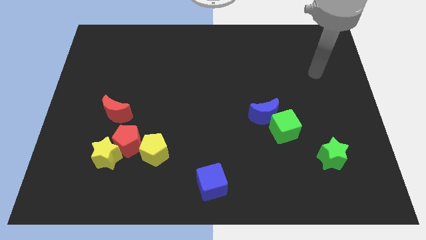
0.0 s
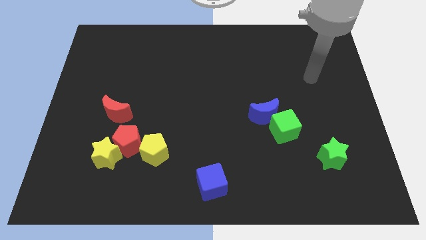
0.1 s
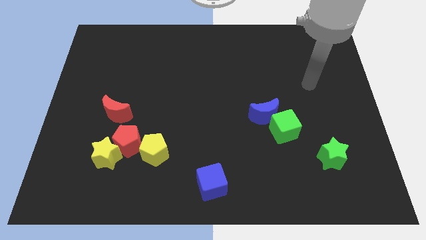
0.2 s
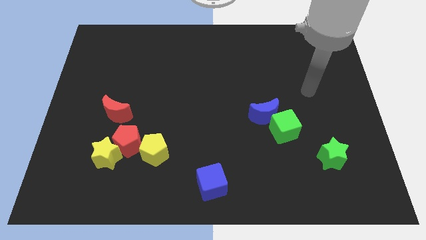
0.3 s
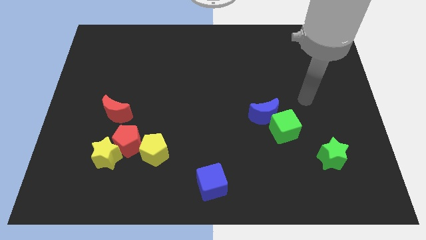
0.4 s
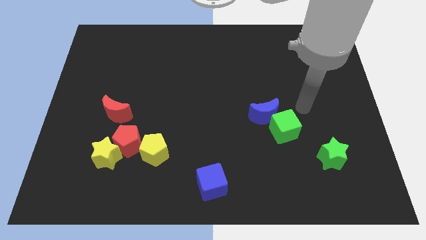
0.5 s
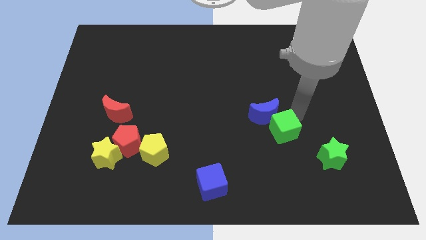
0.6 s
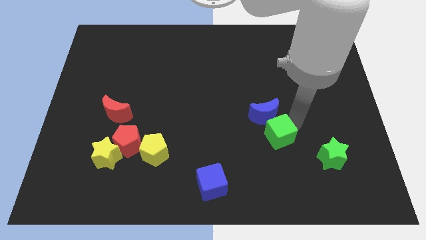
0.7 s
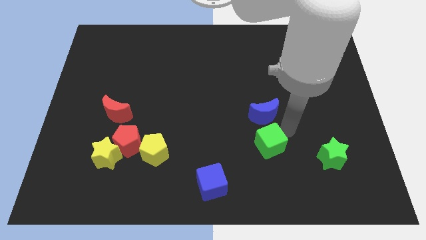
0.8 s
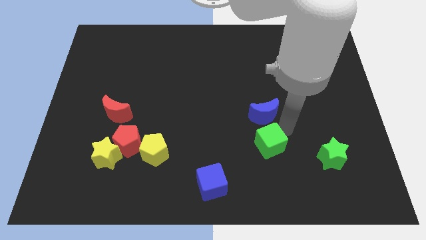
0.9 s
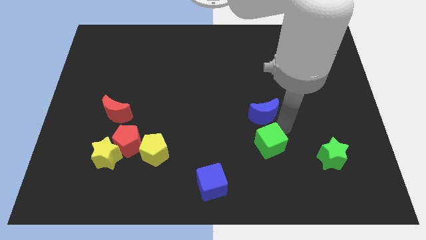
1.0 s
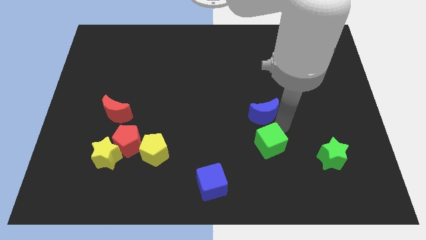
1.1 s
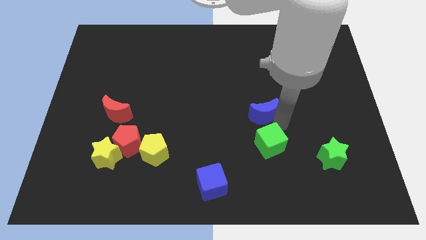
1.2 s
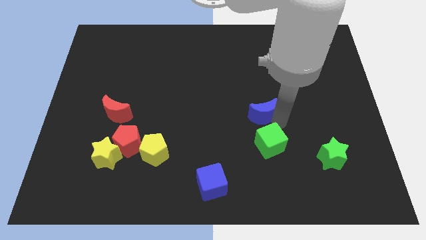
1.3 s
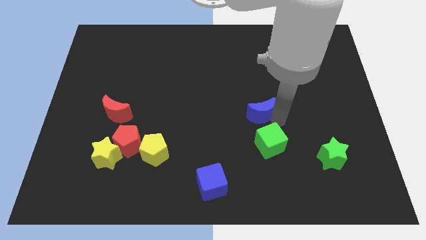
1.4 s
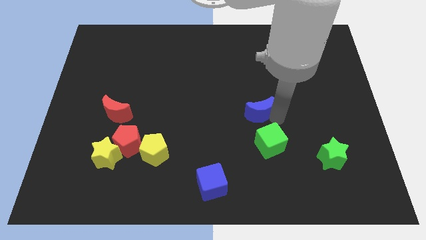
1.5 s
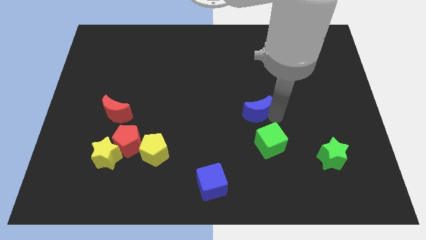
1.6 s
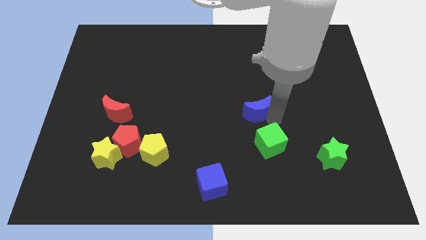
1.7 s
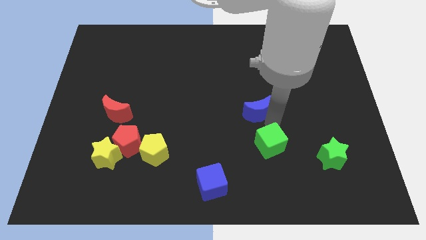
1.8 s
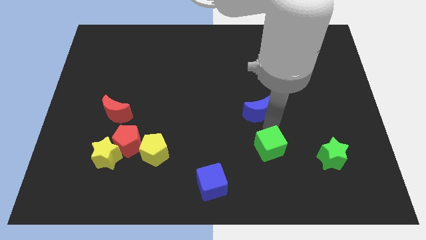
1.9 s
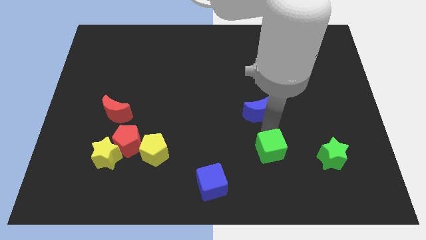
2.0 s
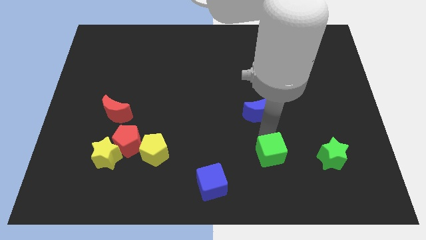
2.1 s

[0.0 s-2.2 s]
move the blue moon away from the green cube

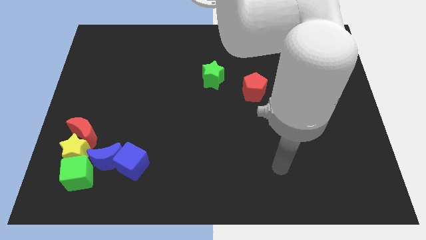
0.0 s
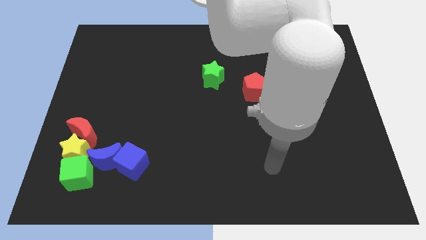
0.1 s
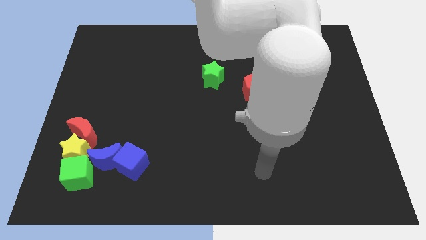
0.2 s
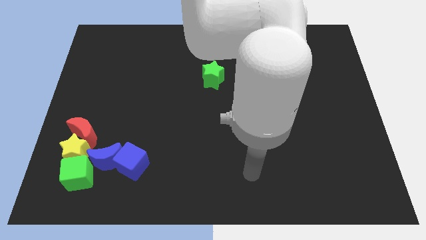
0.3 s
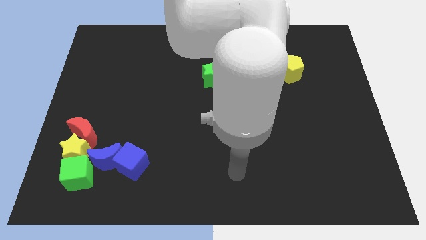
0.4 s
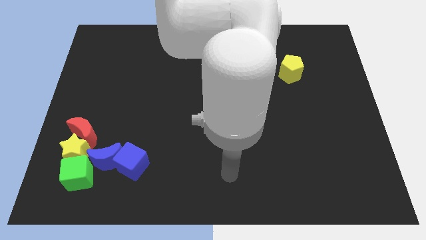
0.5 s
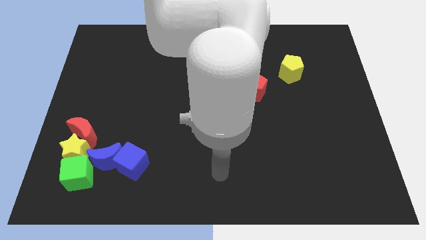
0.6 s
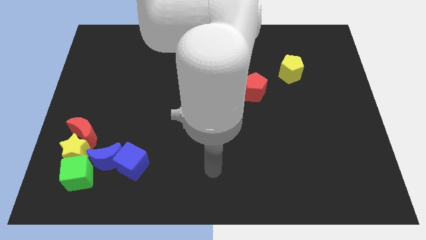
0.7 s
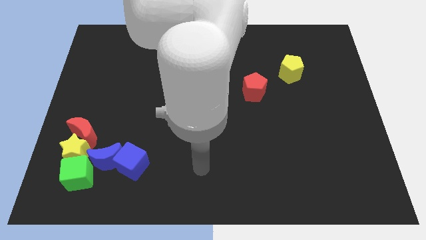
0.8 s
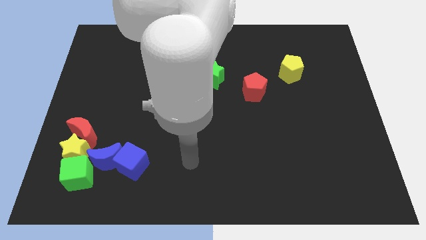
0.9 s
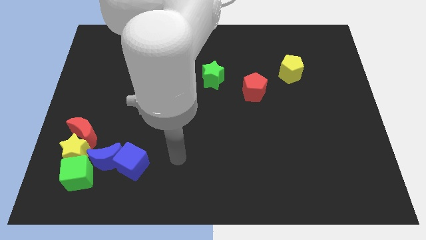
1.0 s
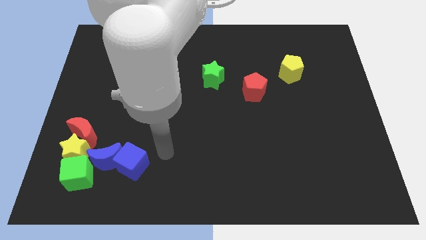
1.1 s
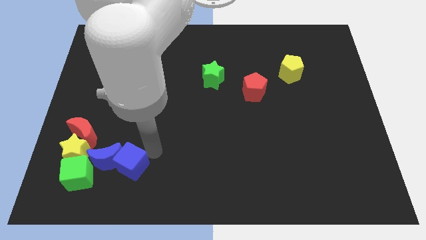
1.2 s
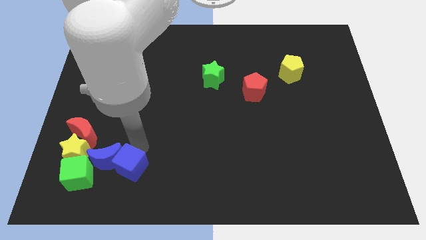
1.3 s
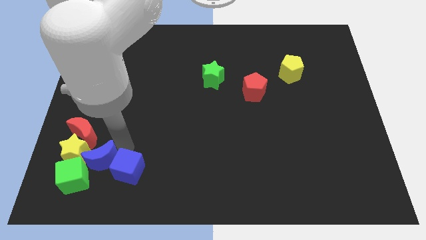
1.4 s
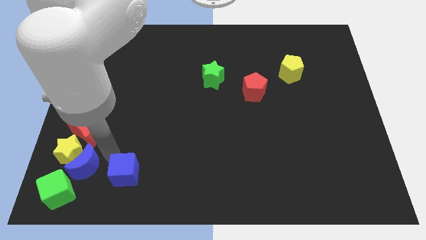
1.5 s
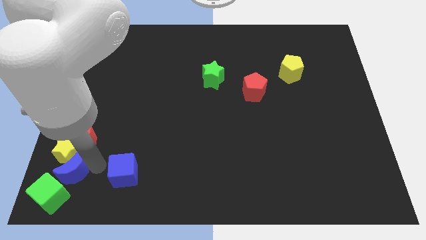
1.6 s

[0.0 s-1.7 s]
move the blue cube away from the blue moon

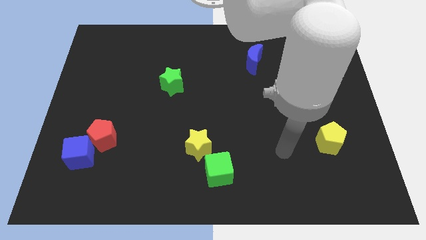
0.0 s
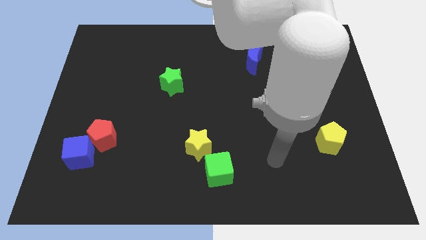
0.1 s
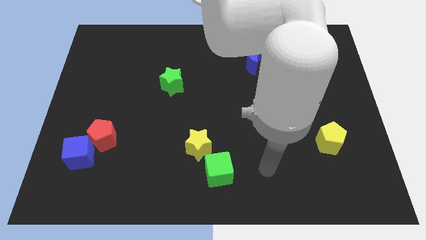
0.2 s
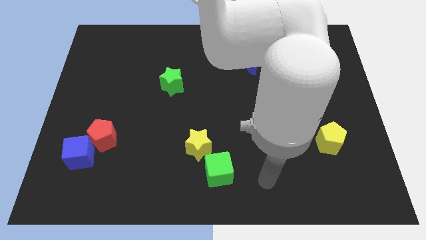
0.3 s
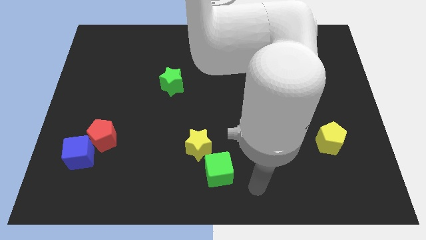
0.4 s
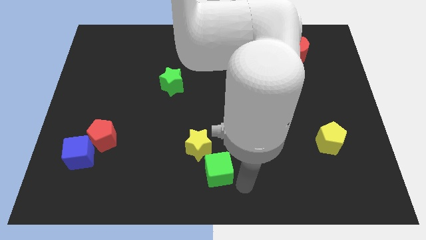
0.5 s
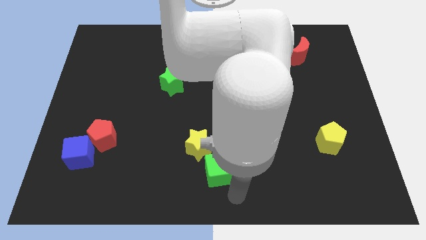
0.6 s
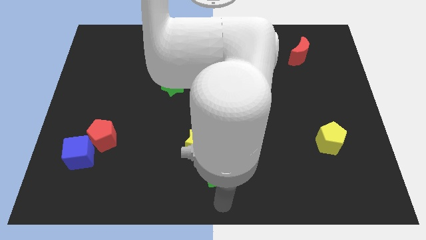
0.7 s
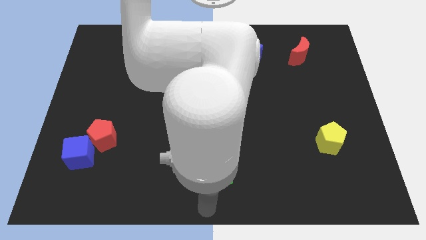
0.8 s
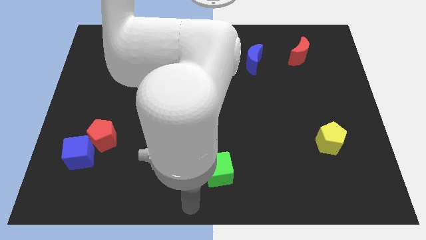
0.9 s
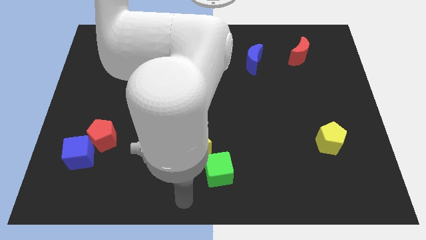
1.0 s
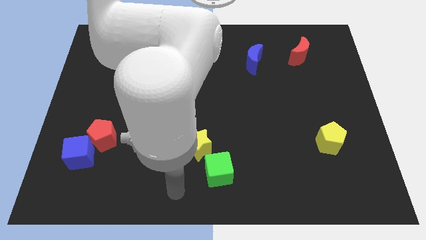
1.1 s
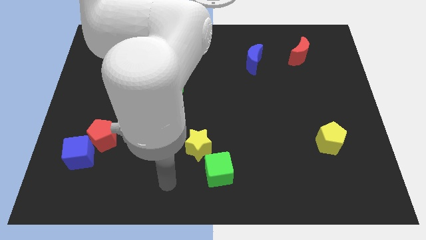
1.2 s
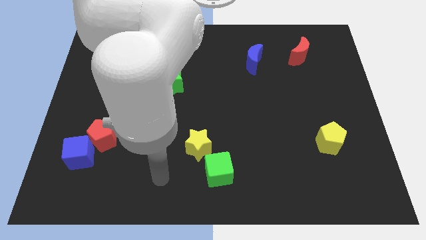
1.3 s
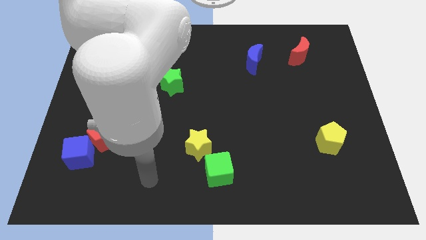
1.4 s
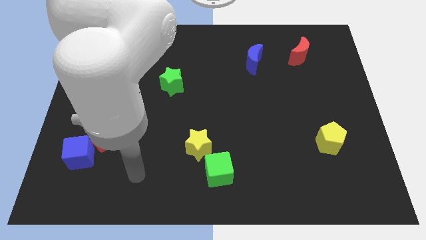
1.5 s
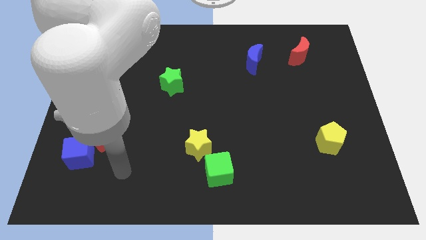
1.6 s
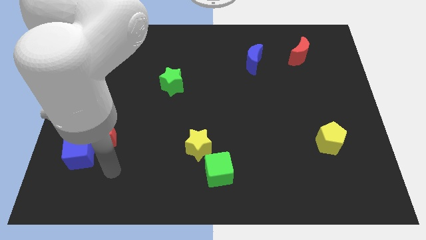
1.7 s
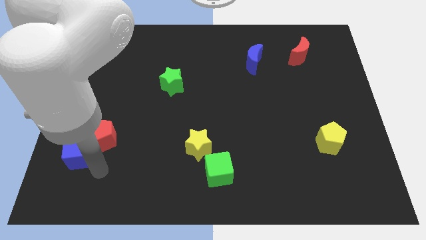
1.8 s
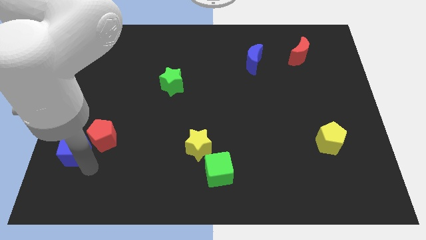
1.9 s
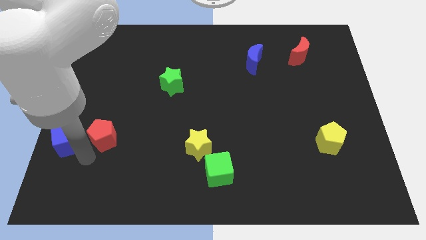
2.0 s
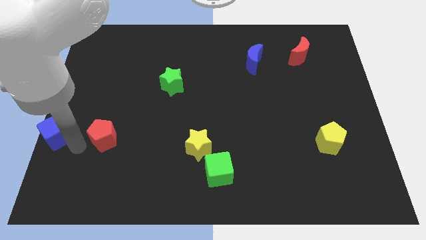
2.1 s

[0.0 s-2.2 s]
pull the red pentagon apart from the blue cube

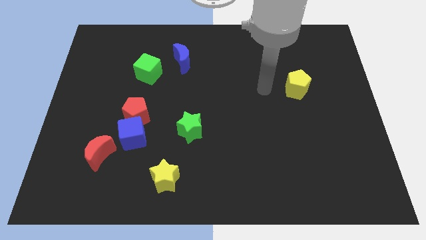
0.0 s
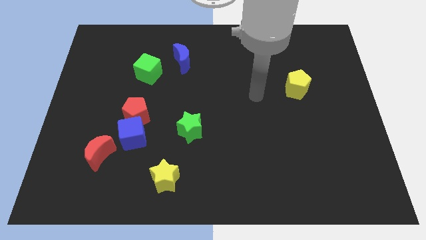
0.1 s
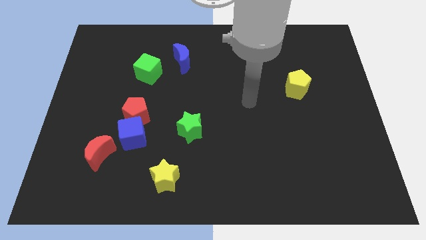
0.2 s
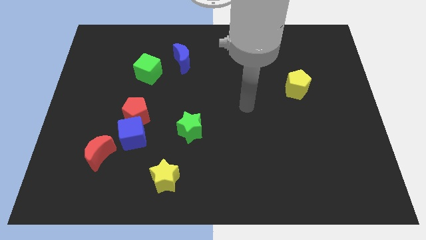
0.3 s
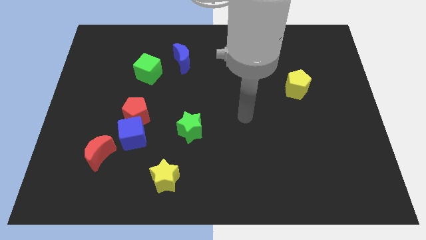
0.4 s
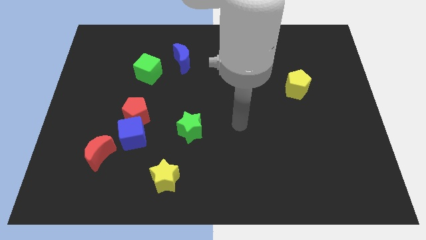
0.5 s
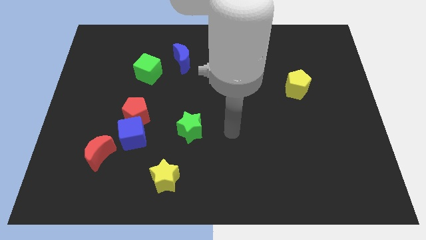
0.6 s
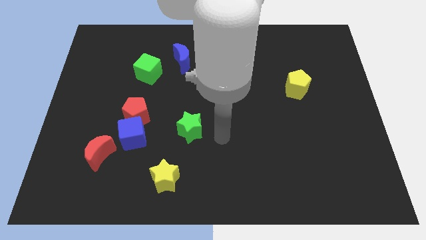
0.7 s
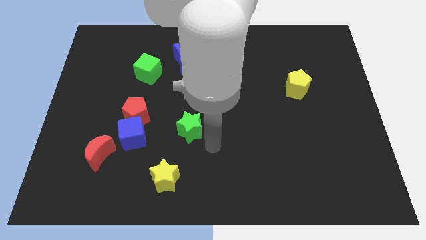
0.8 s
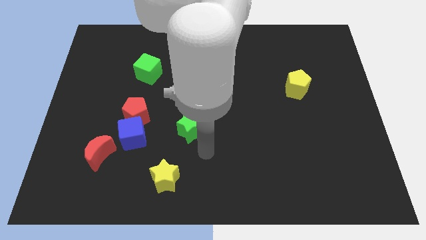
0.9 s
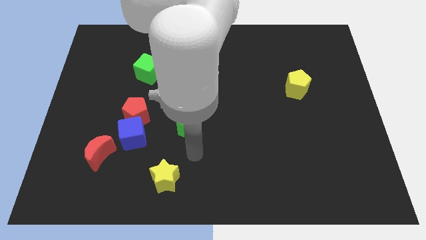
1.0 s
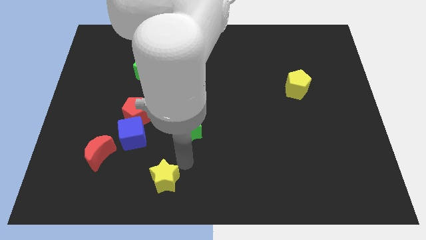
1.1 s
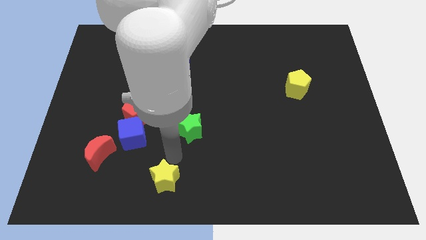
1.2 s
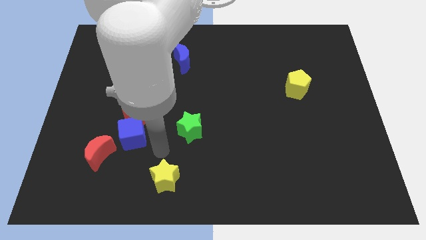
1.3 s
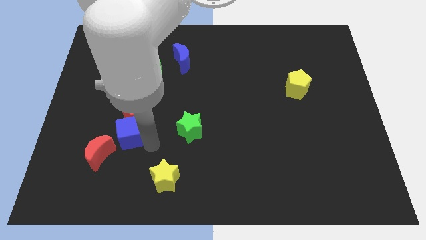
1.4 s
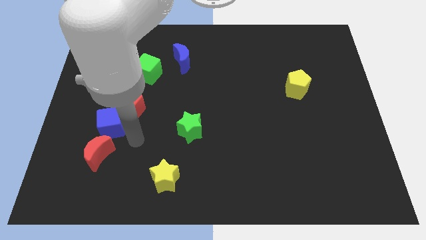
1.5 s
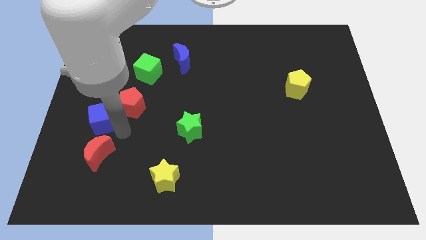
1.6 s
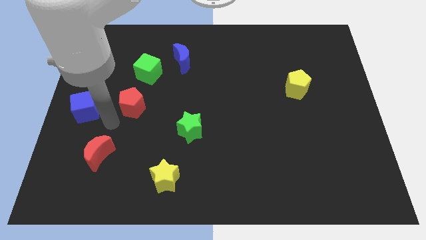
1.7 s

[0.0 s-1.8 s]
separate the red pentagon from the blue cube

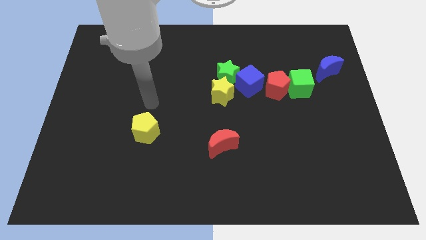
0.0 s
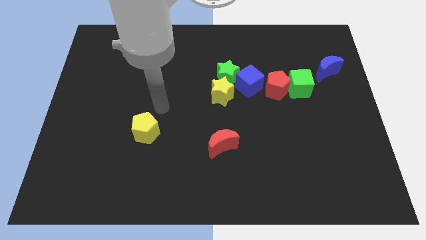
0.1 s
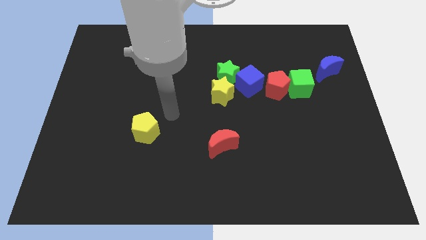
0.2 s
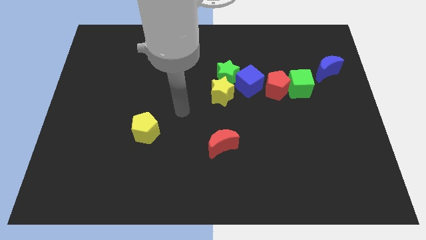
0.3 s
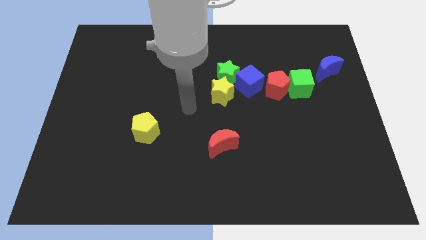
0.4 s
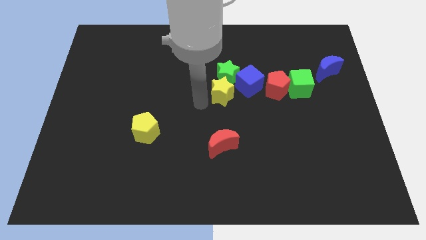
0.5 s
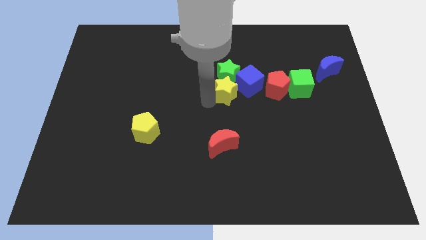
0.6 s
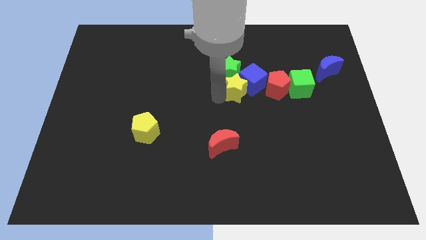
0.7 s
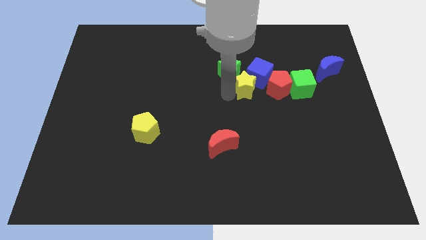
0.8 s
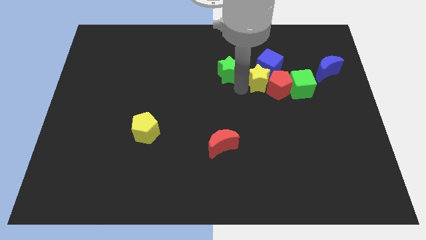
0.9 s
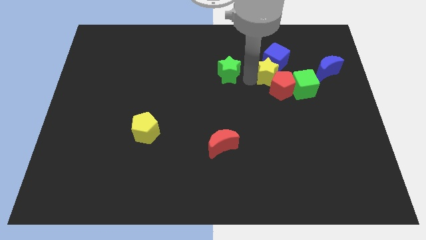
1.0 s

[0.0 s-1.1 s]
move the green star away from the blue cube and yellow star

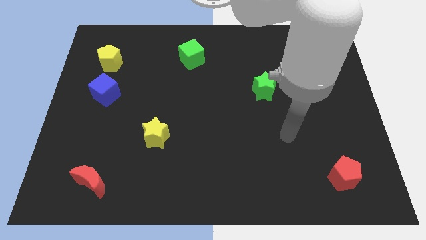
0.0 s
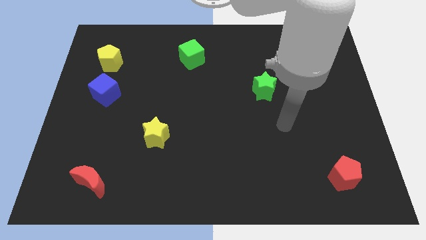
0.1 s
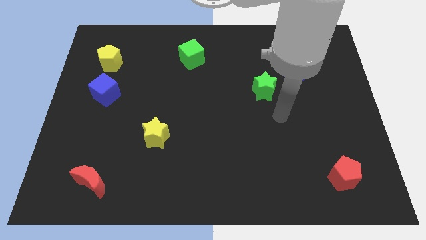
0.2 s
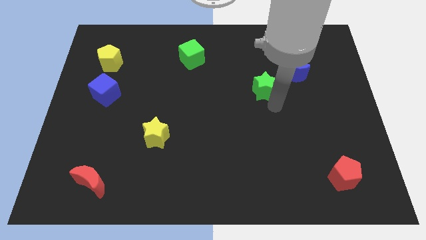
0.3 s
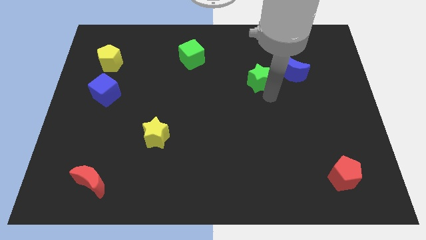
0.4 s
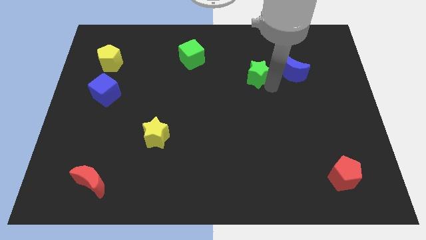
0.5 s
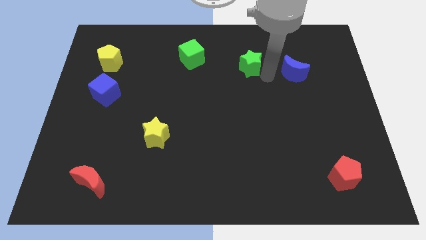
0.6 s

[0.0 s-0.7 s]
separate the blue moon from the green star
